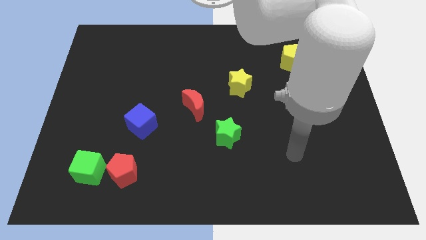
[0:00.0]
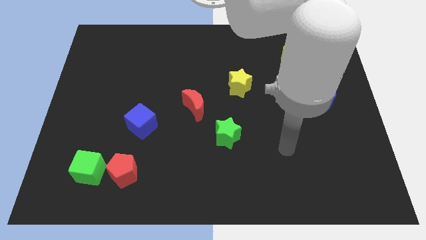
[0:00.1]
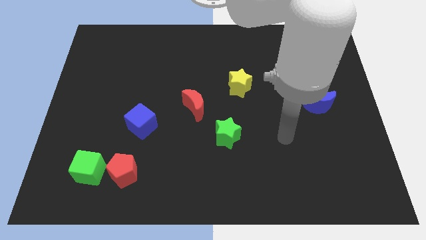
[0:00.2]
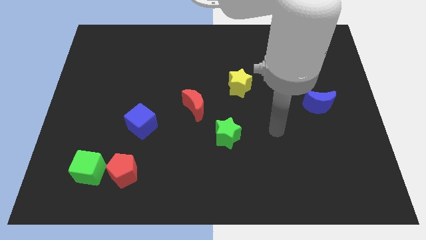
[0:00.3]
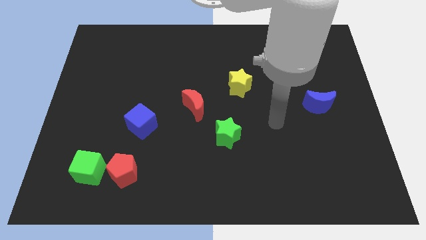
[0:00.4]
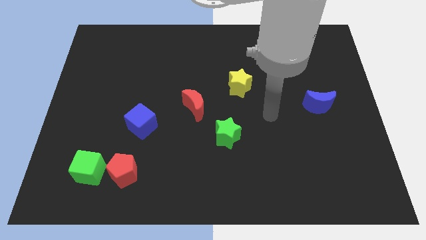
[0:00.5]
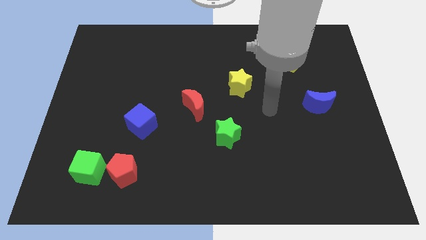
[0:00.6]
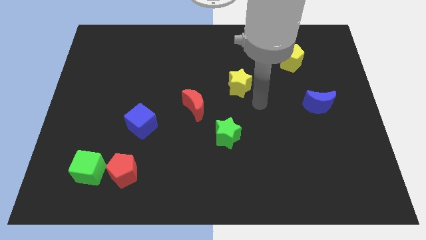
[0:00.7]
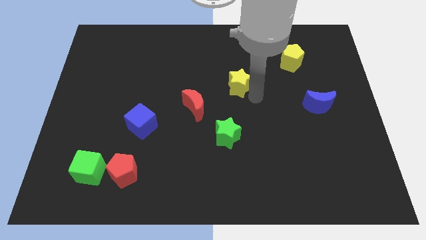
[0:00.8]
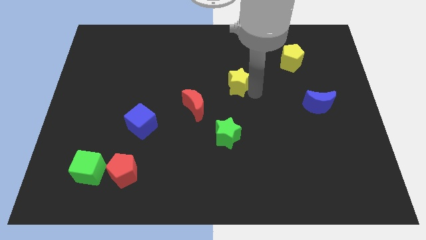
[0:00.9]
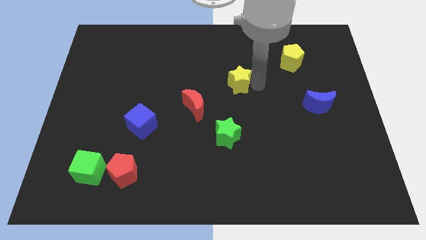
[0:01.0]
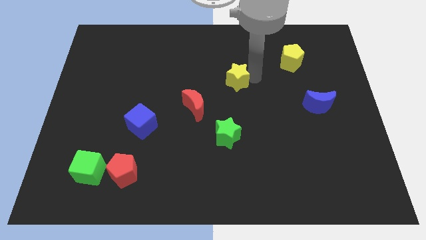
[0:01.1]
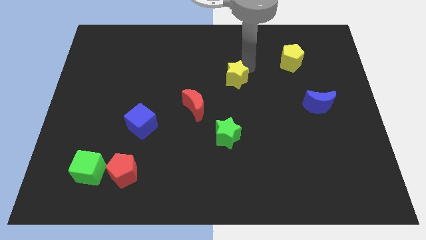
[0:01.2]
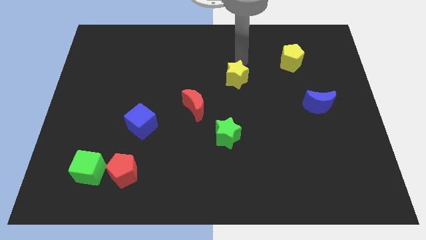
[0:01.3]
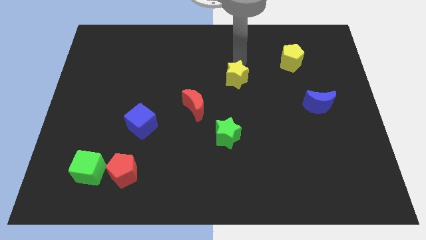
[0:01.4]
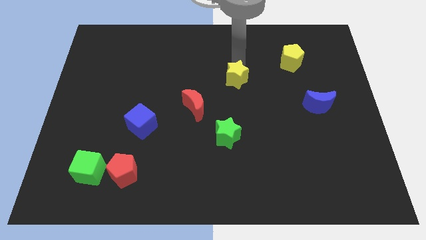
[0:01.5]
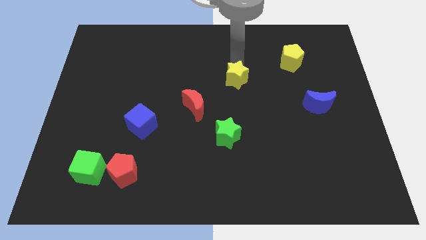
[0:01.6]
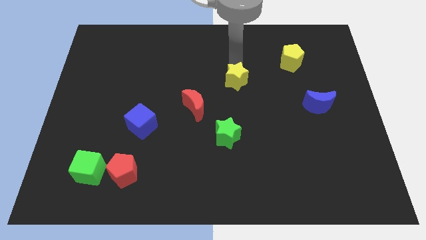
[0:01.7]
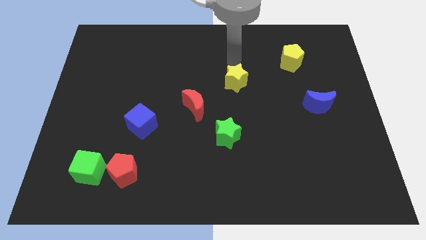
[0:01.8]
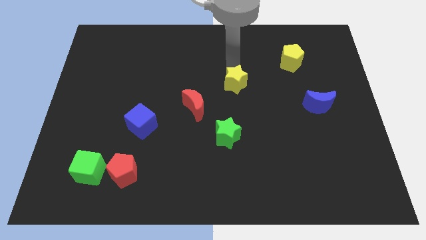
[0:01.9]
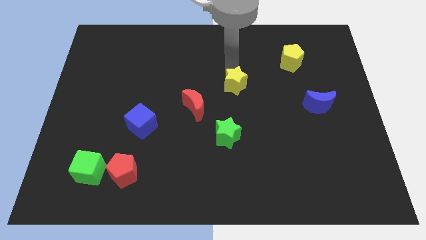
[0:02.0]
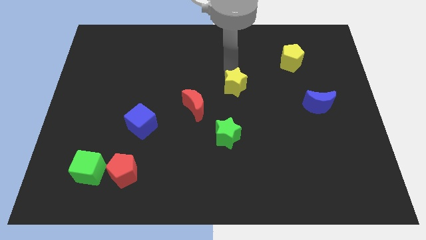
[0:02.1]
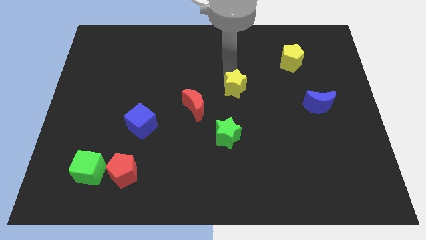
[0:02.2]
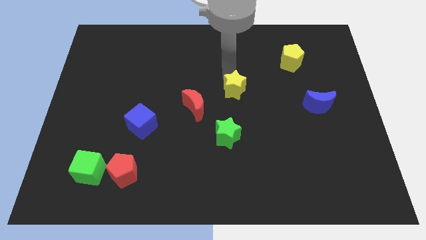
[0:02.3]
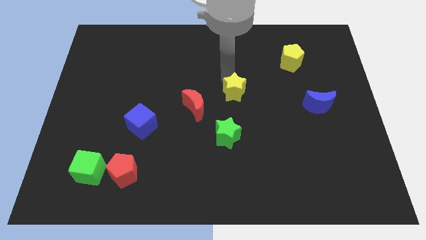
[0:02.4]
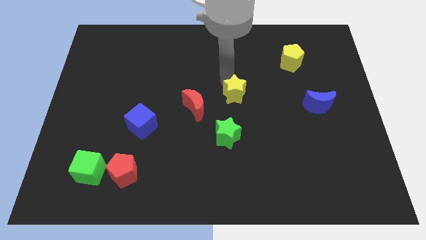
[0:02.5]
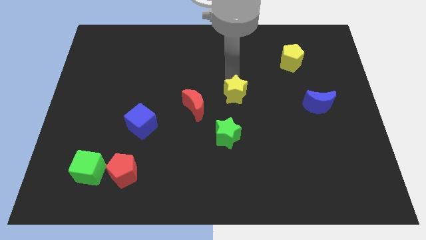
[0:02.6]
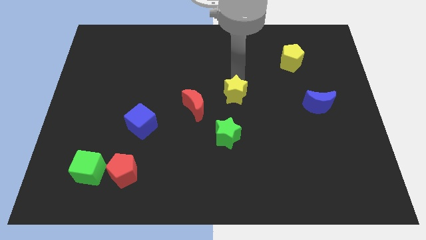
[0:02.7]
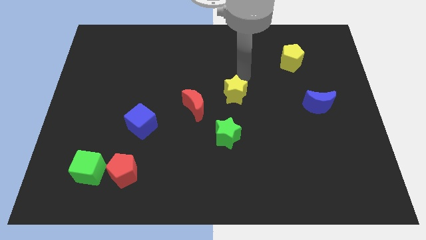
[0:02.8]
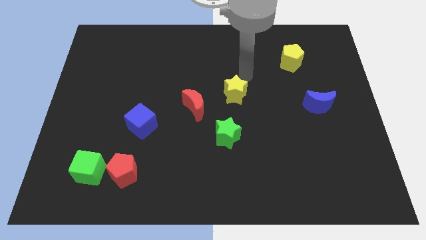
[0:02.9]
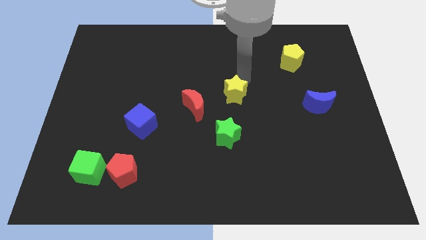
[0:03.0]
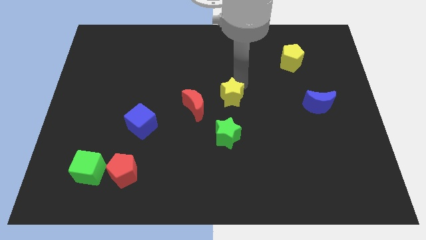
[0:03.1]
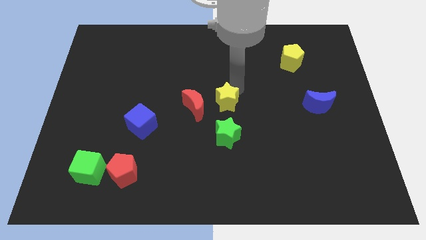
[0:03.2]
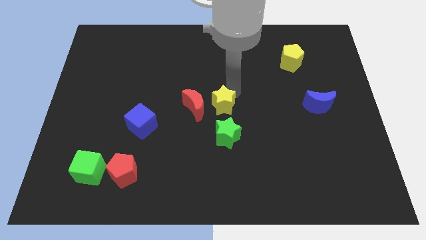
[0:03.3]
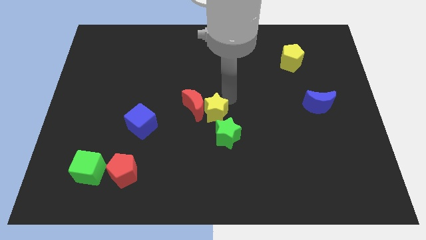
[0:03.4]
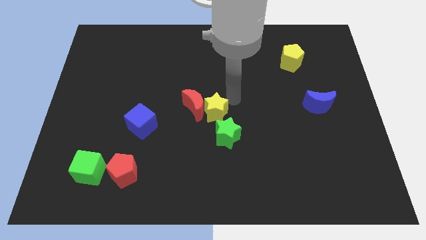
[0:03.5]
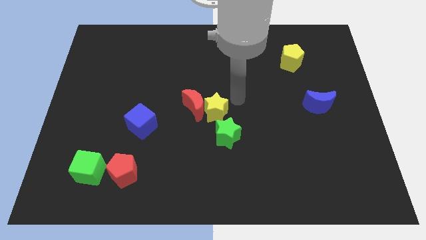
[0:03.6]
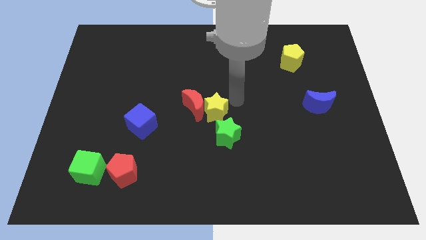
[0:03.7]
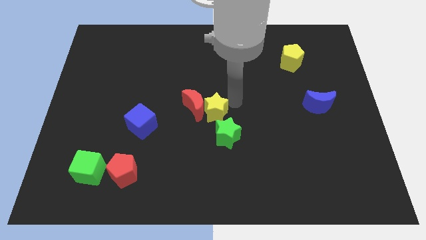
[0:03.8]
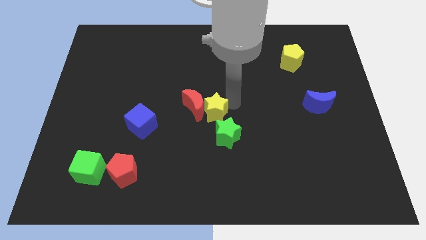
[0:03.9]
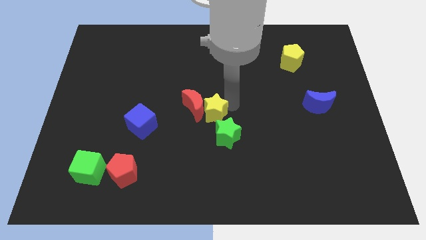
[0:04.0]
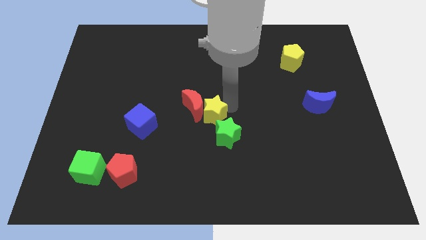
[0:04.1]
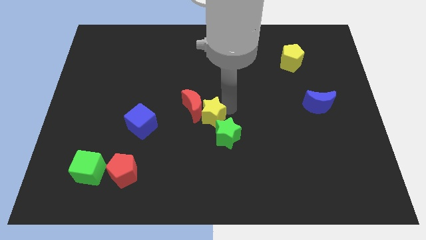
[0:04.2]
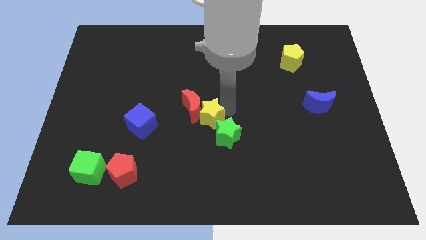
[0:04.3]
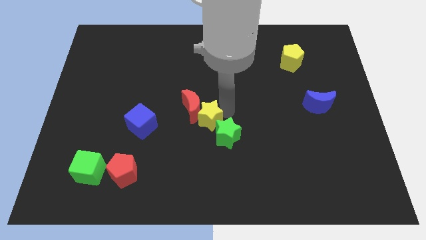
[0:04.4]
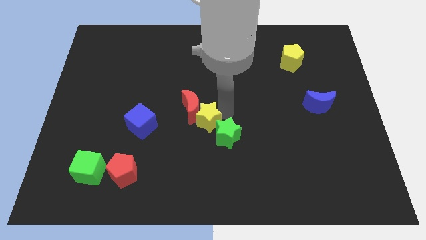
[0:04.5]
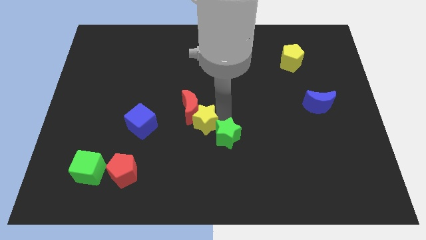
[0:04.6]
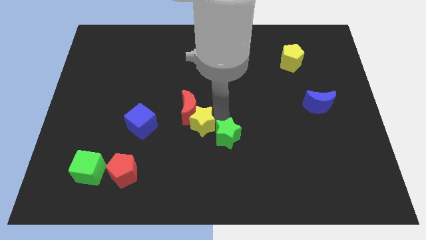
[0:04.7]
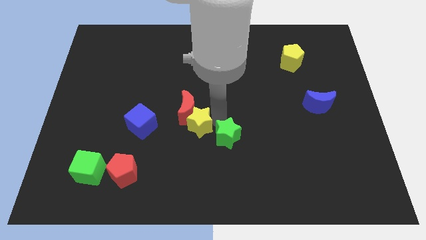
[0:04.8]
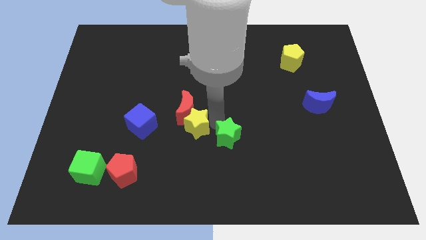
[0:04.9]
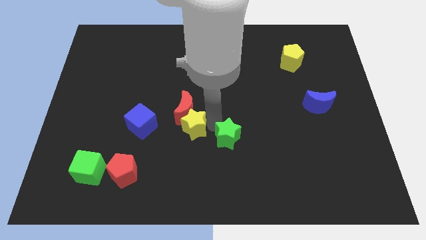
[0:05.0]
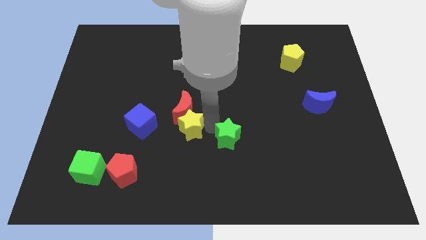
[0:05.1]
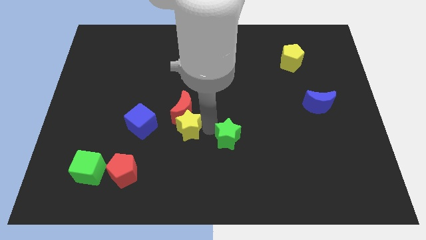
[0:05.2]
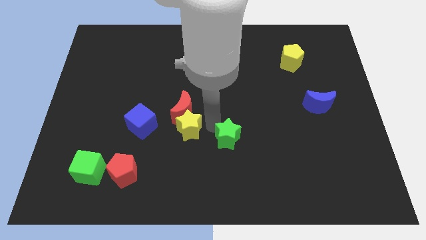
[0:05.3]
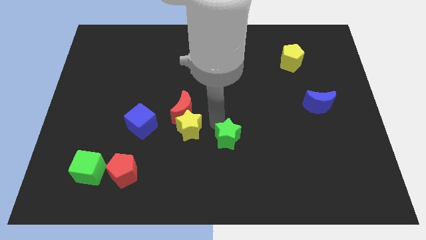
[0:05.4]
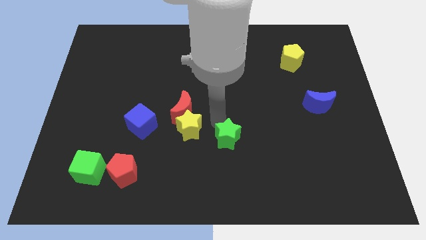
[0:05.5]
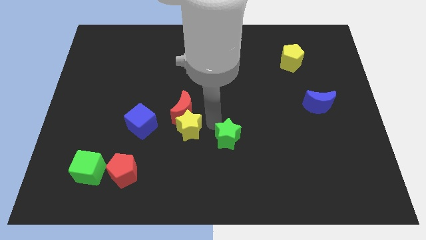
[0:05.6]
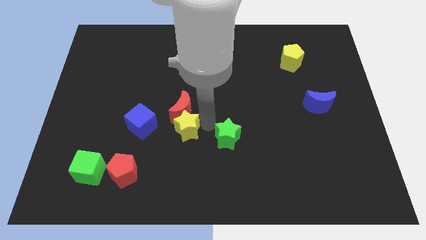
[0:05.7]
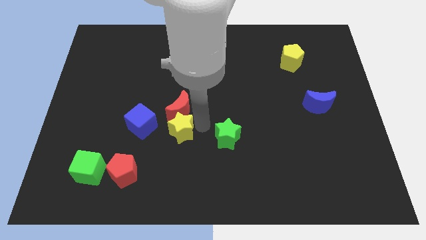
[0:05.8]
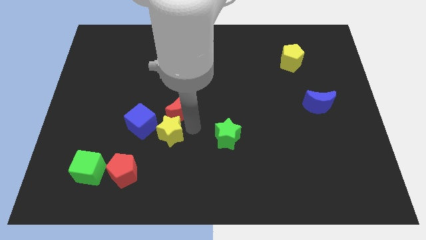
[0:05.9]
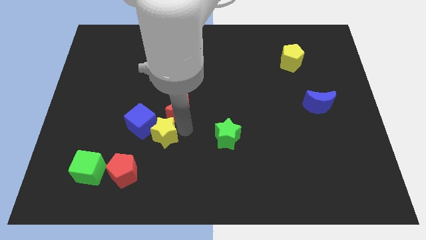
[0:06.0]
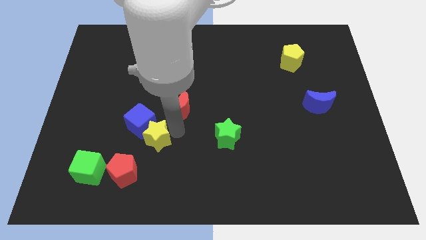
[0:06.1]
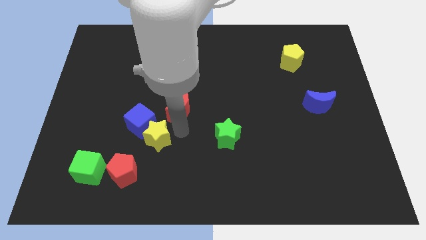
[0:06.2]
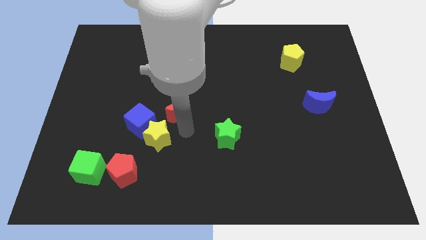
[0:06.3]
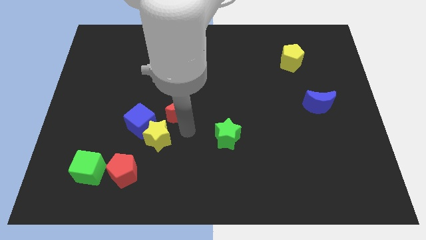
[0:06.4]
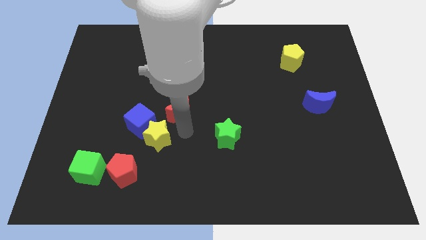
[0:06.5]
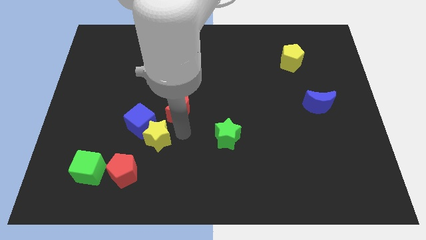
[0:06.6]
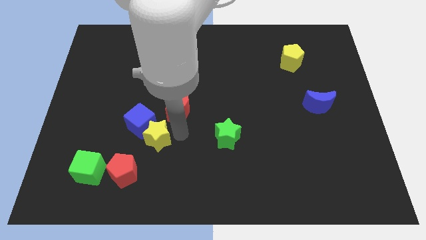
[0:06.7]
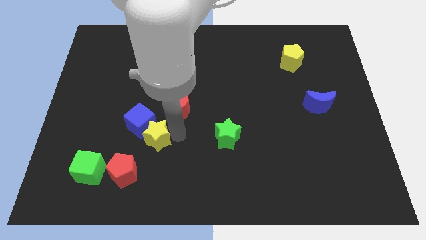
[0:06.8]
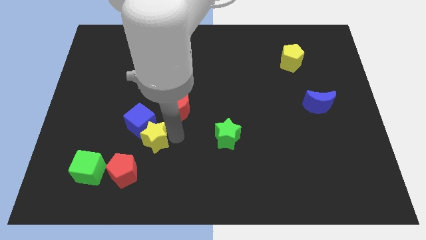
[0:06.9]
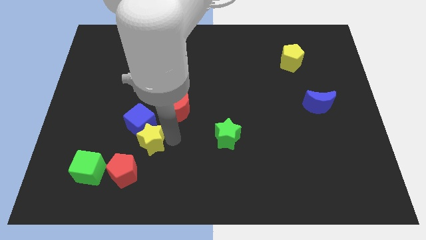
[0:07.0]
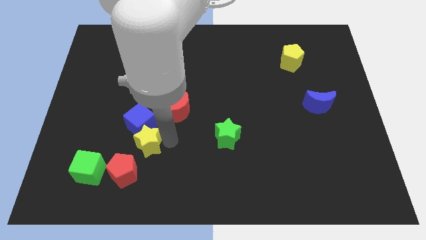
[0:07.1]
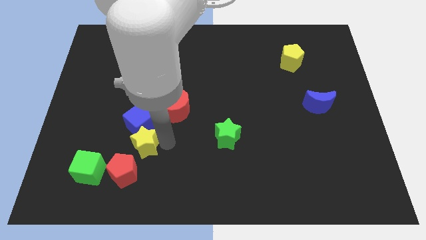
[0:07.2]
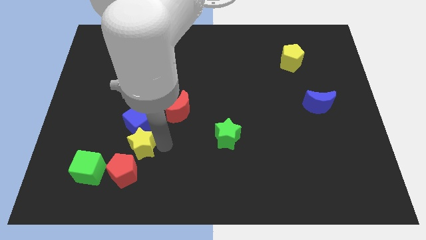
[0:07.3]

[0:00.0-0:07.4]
move the yellow star diagonally up and to the right of the green cube

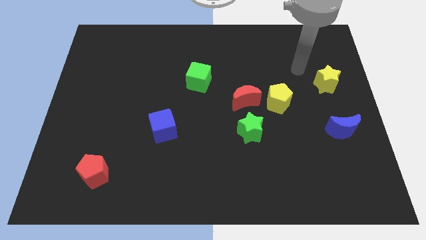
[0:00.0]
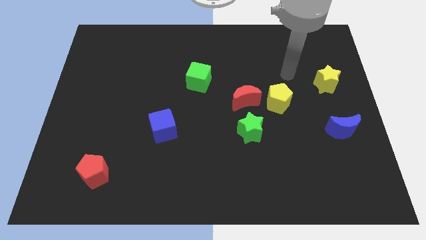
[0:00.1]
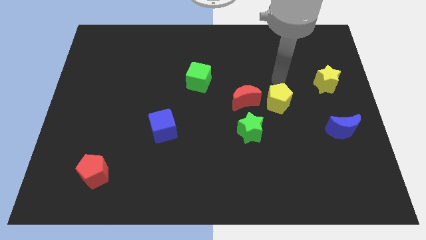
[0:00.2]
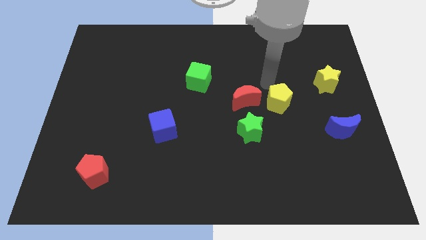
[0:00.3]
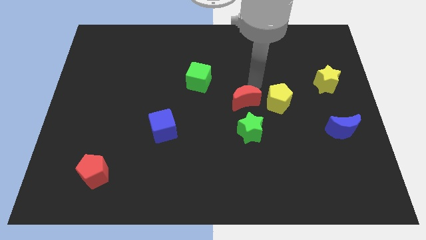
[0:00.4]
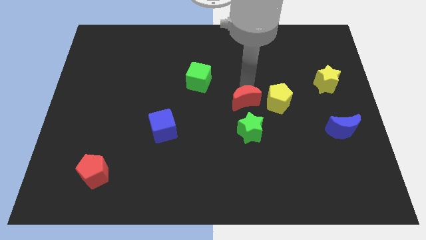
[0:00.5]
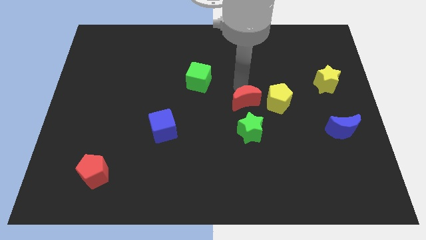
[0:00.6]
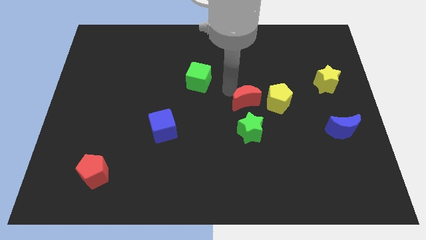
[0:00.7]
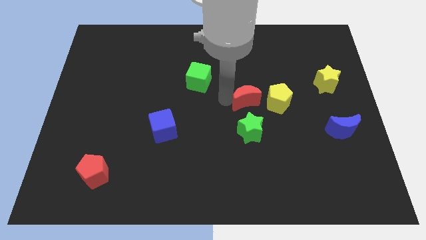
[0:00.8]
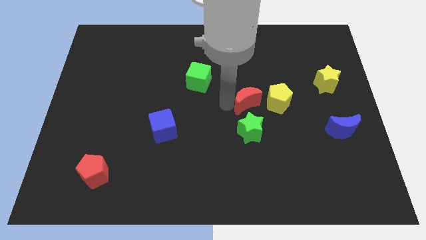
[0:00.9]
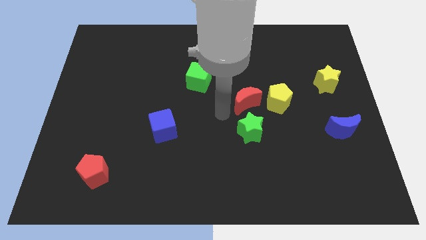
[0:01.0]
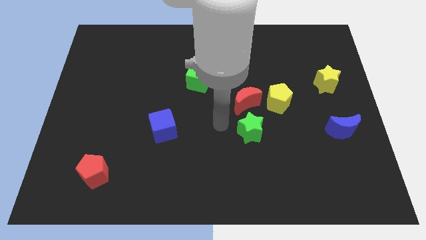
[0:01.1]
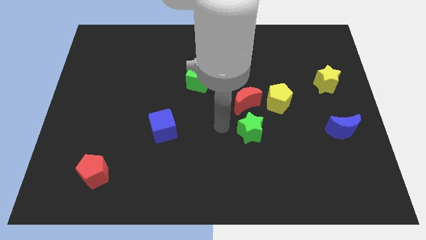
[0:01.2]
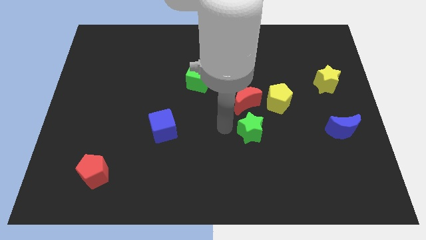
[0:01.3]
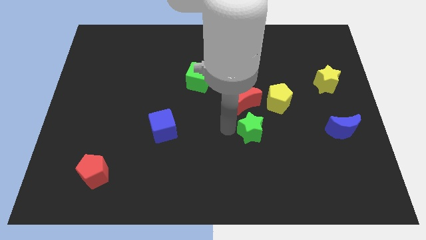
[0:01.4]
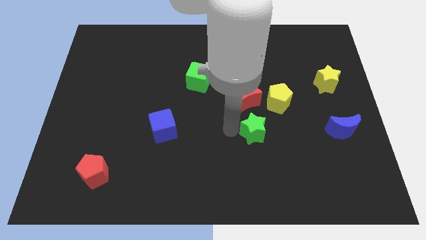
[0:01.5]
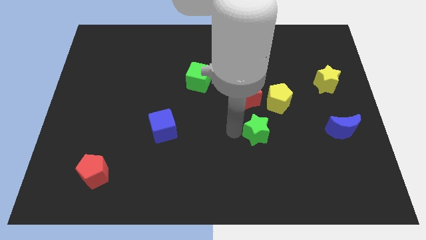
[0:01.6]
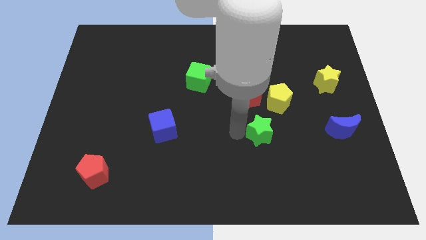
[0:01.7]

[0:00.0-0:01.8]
put the green star to the bottom of the yellow pentagon
